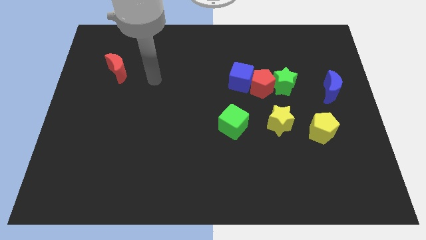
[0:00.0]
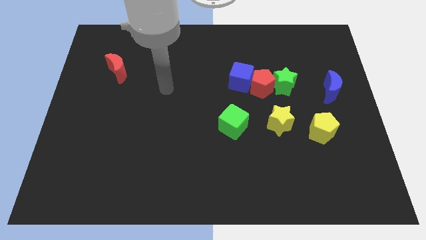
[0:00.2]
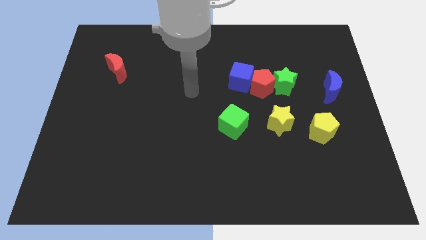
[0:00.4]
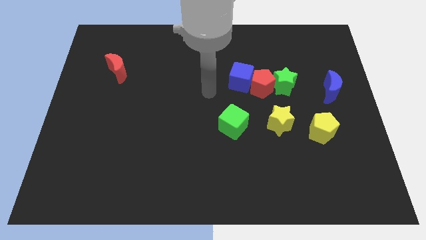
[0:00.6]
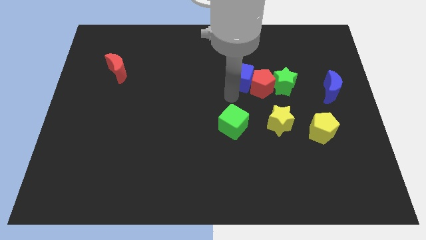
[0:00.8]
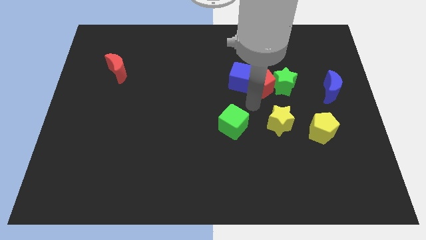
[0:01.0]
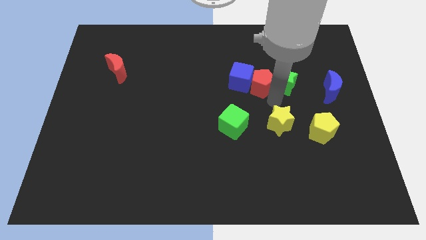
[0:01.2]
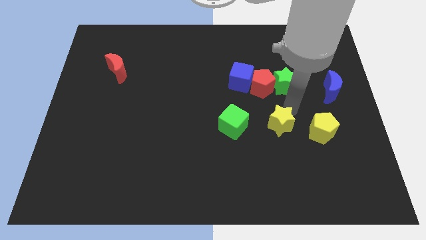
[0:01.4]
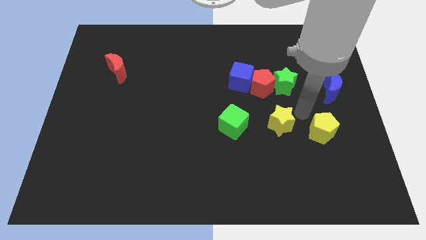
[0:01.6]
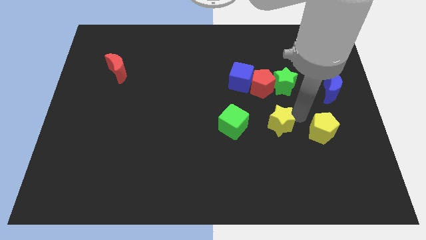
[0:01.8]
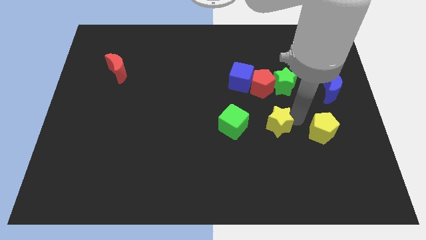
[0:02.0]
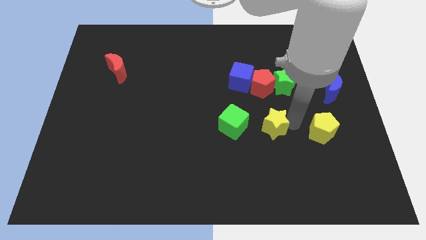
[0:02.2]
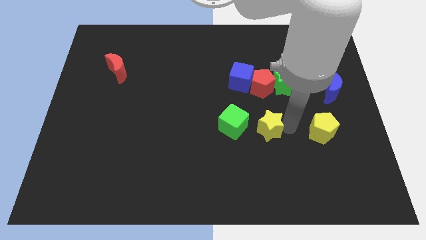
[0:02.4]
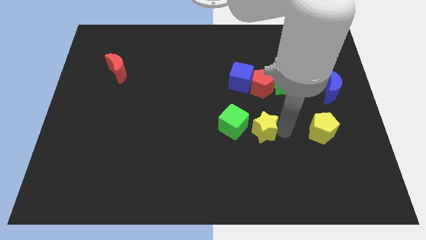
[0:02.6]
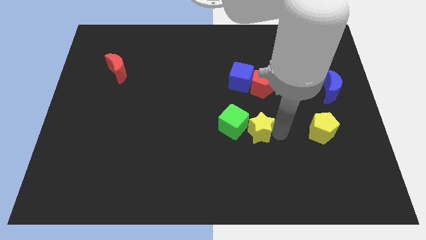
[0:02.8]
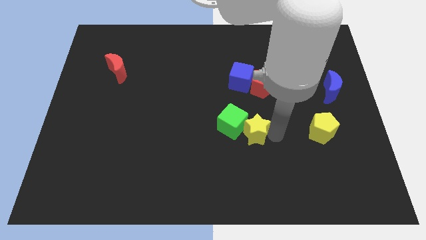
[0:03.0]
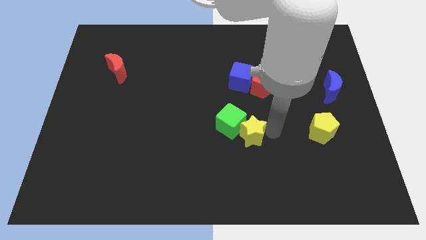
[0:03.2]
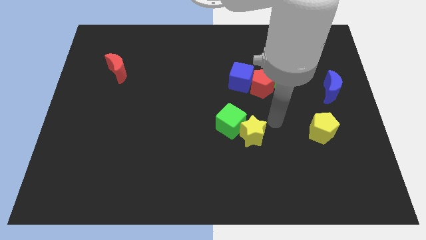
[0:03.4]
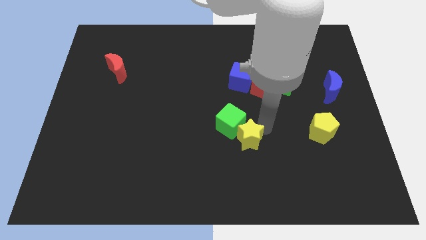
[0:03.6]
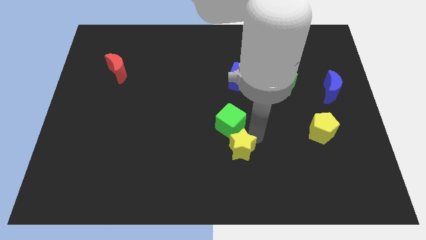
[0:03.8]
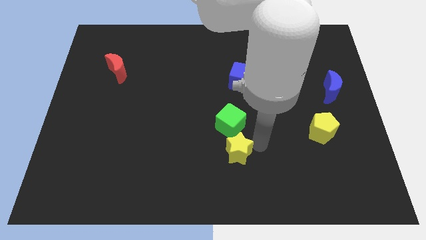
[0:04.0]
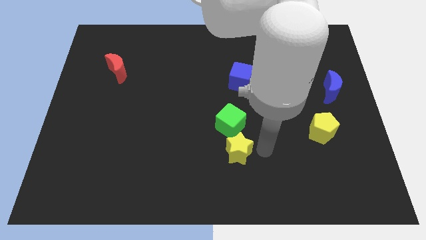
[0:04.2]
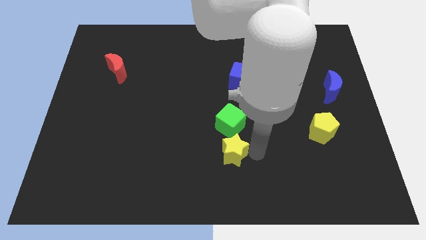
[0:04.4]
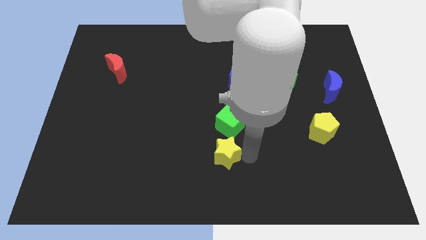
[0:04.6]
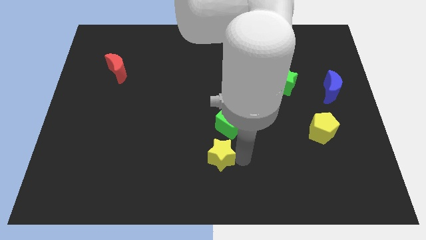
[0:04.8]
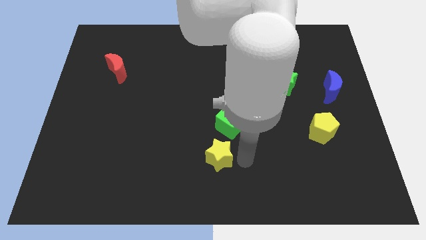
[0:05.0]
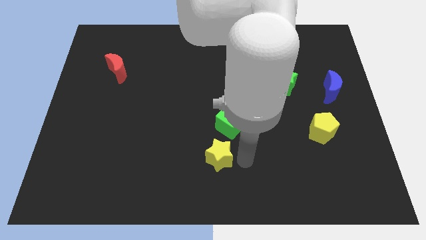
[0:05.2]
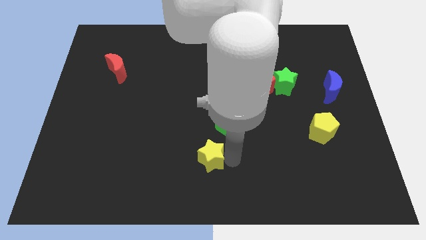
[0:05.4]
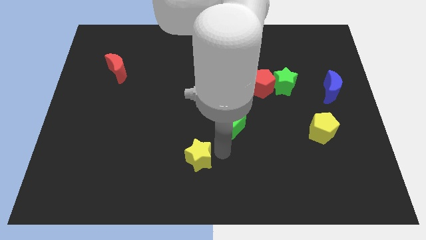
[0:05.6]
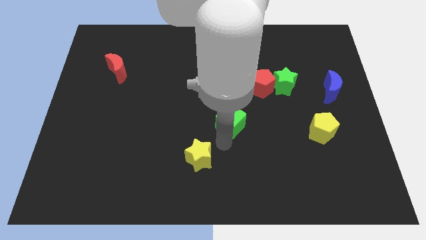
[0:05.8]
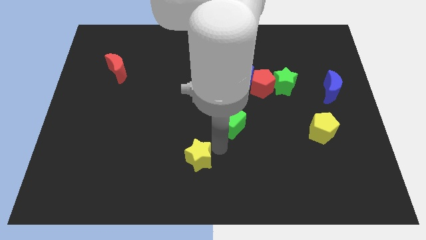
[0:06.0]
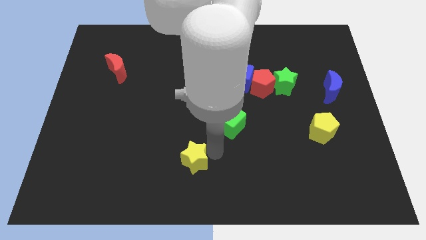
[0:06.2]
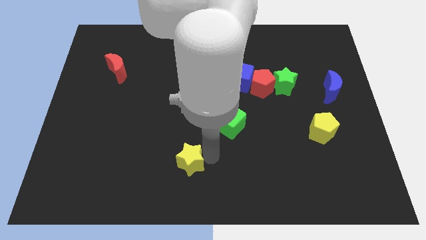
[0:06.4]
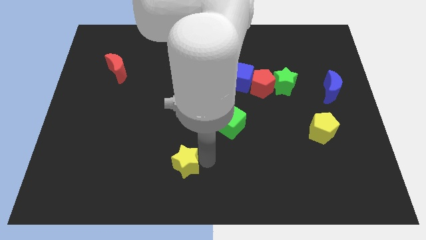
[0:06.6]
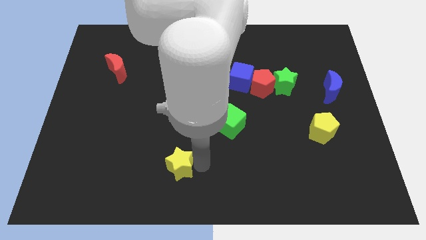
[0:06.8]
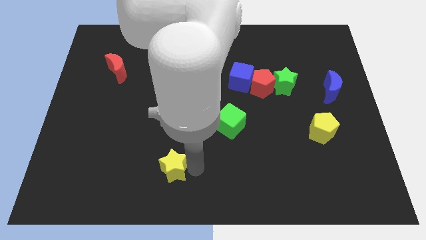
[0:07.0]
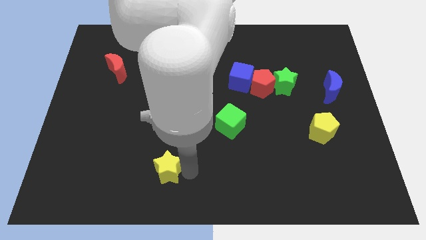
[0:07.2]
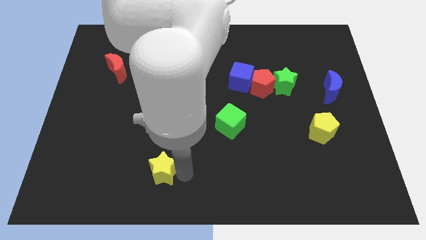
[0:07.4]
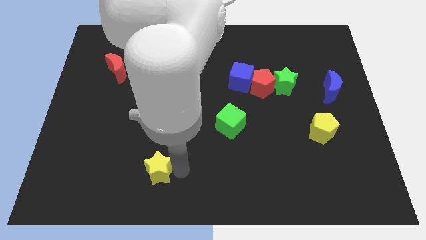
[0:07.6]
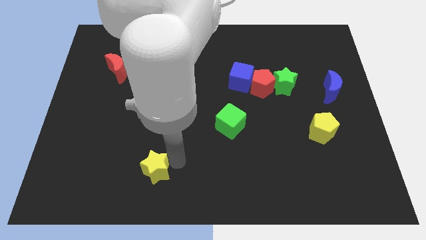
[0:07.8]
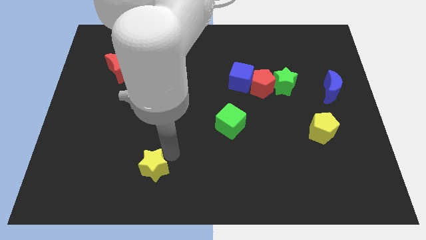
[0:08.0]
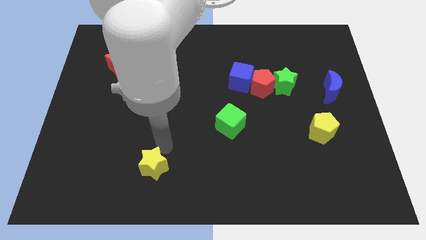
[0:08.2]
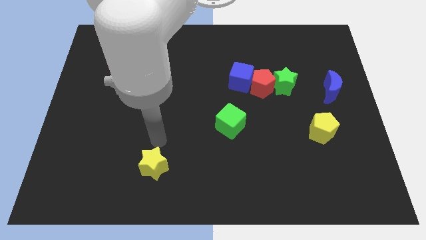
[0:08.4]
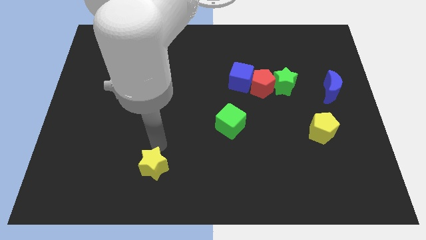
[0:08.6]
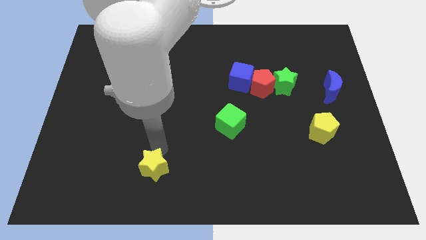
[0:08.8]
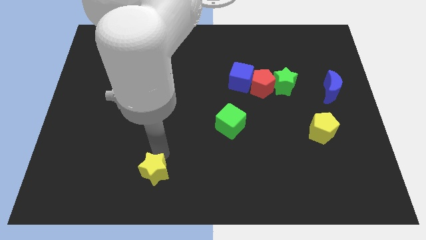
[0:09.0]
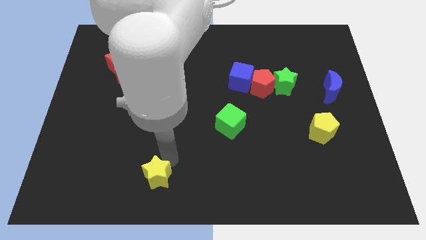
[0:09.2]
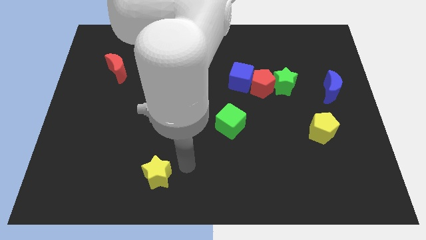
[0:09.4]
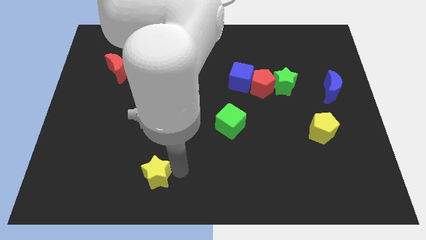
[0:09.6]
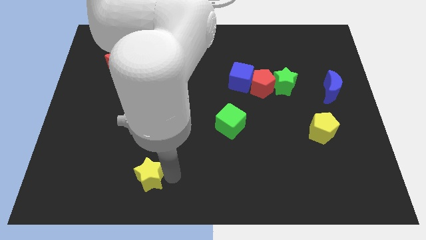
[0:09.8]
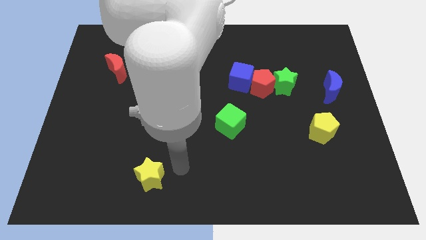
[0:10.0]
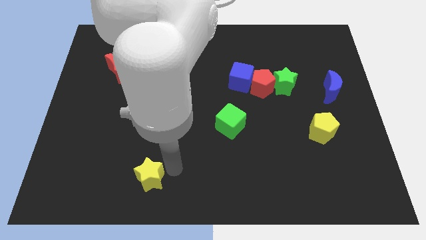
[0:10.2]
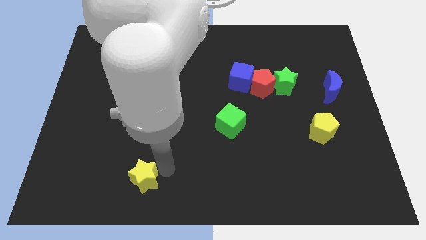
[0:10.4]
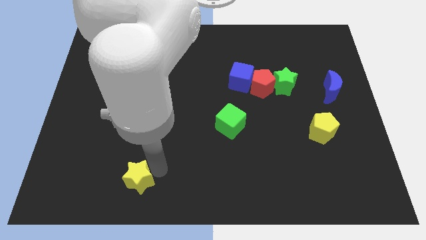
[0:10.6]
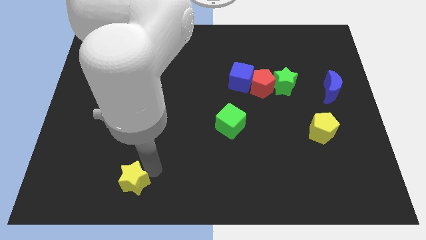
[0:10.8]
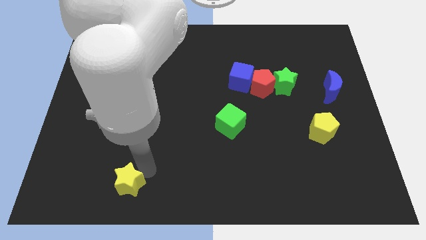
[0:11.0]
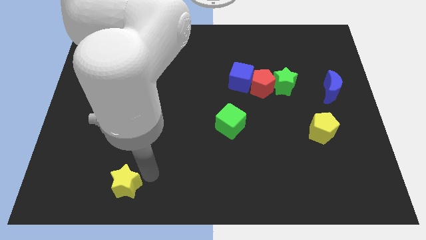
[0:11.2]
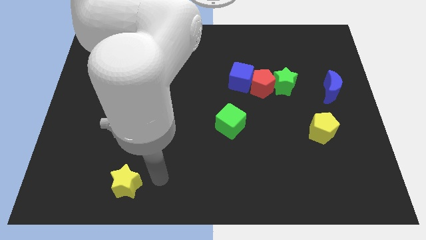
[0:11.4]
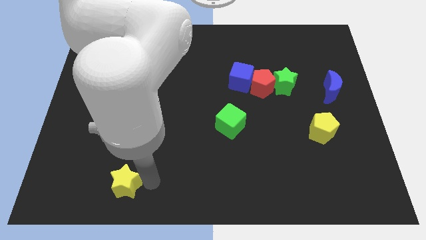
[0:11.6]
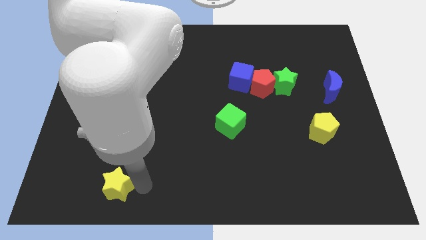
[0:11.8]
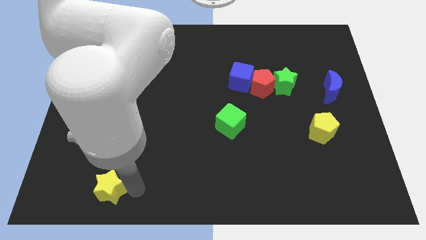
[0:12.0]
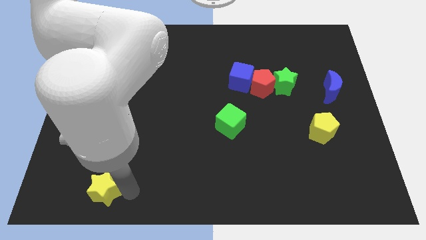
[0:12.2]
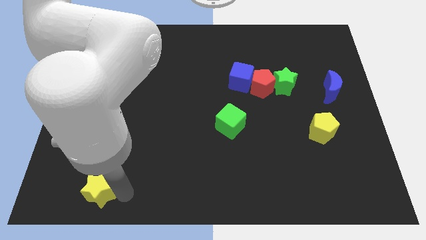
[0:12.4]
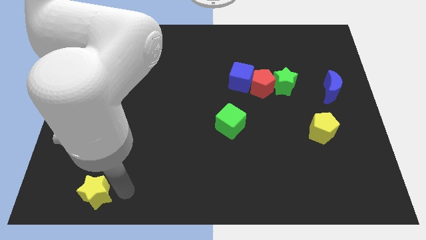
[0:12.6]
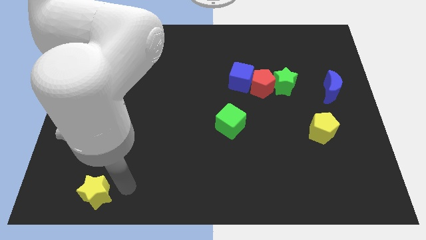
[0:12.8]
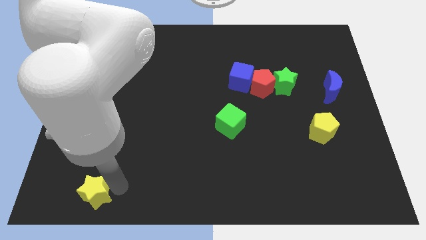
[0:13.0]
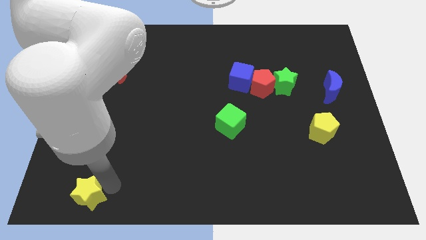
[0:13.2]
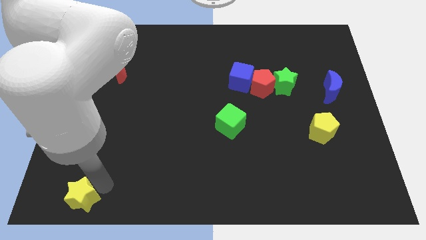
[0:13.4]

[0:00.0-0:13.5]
move the yellow star to the bottom left corner

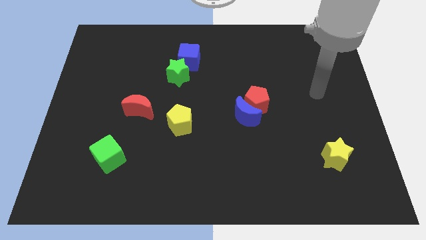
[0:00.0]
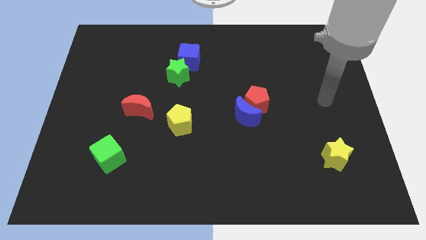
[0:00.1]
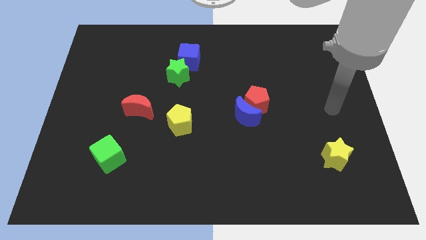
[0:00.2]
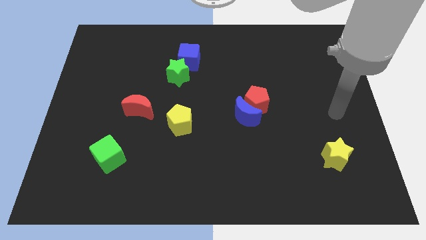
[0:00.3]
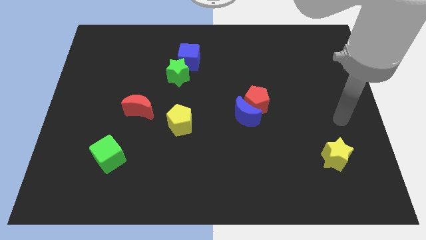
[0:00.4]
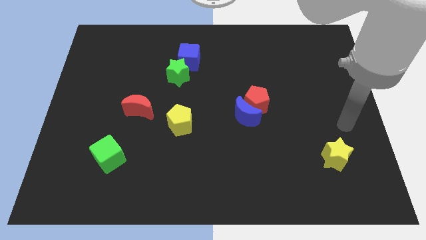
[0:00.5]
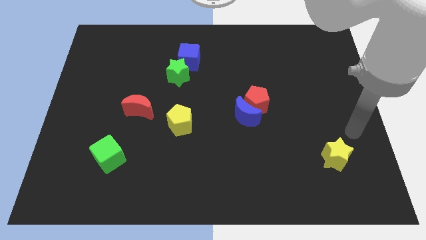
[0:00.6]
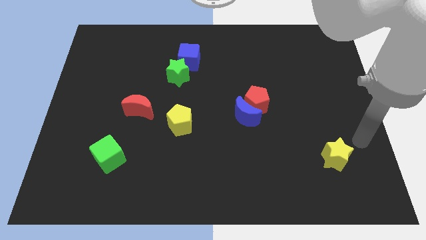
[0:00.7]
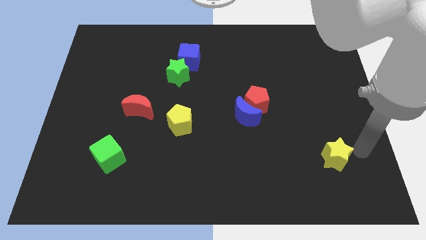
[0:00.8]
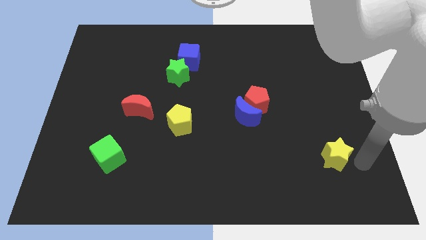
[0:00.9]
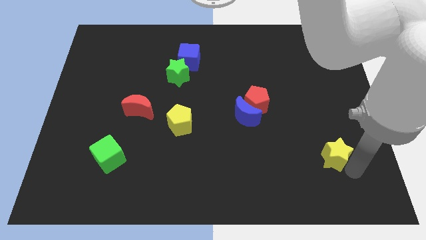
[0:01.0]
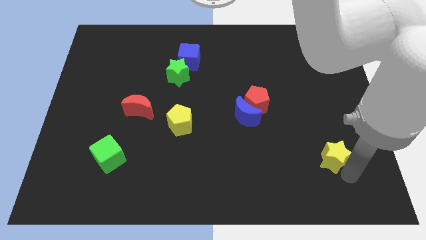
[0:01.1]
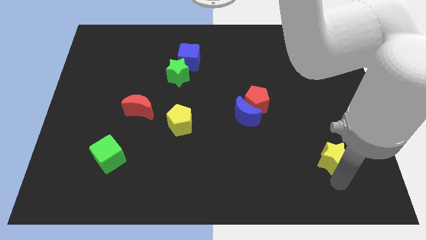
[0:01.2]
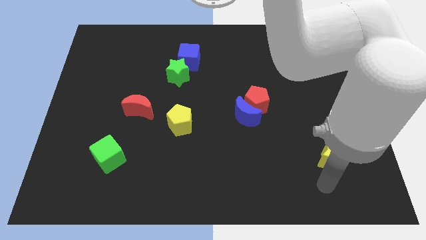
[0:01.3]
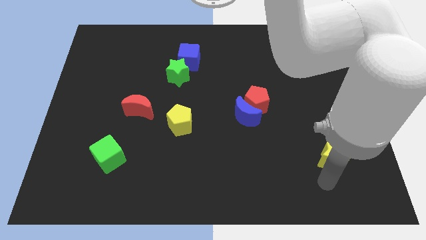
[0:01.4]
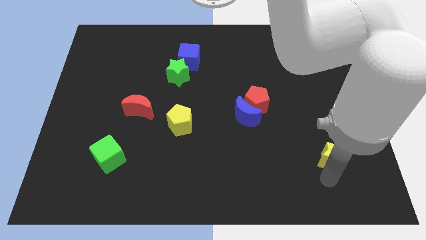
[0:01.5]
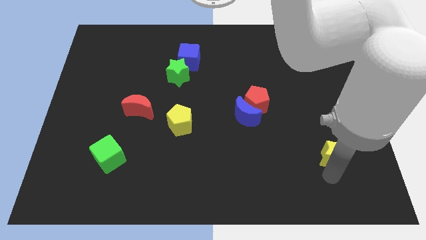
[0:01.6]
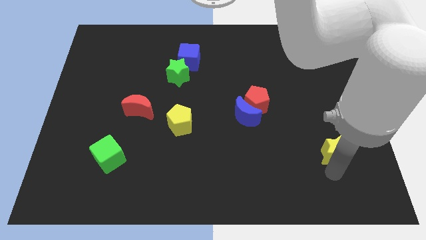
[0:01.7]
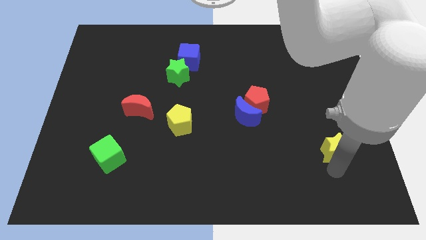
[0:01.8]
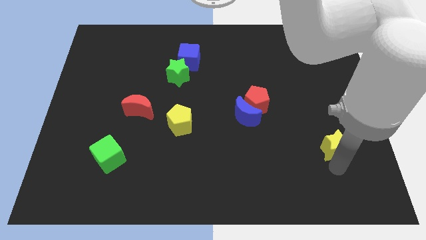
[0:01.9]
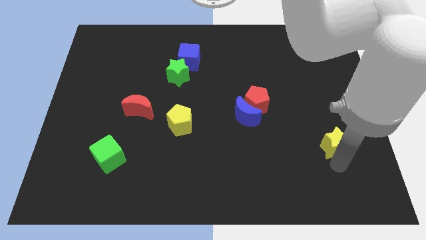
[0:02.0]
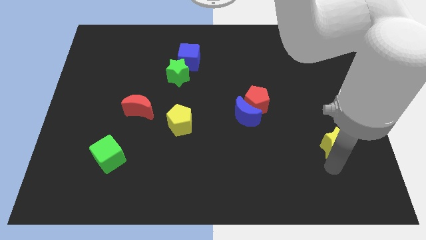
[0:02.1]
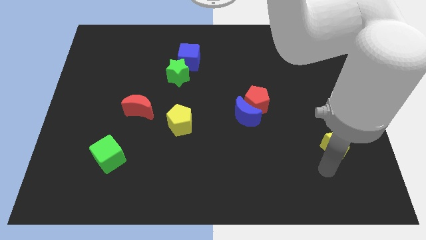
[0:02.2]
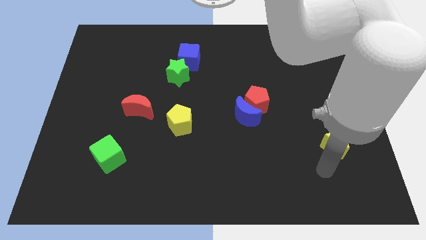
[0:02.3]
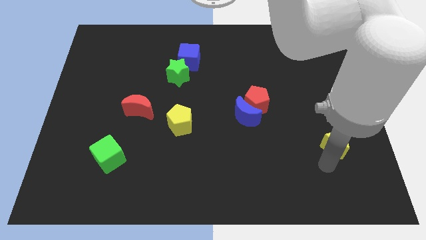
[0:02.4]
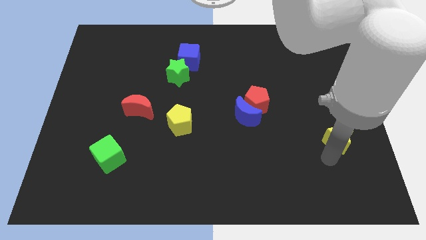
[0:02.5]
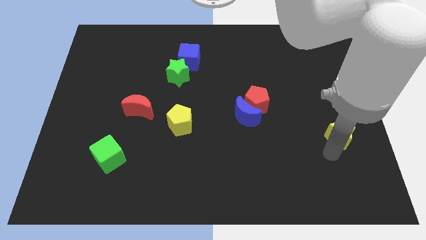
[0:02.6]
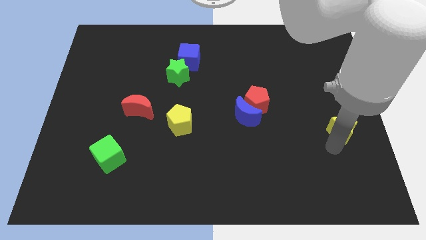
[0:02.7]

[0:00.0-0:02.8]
put the yellow star to the right side of the board
